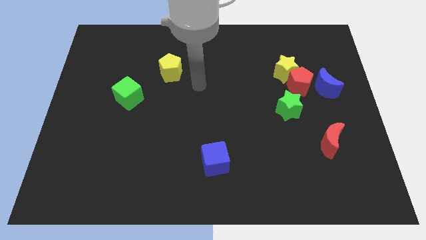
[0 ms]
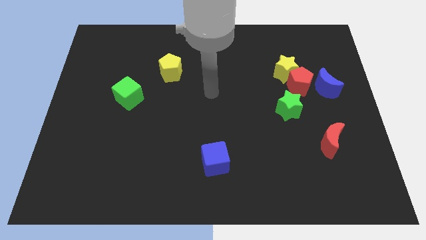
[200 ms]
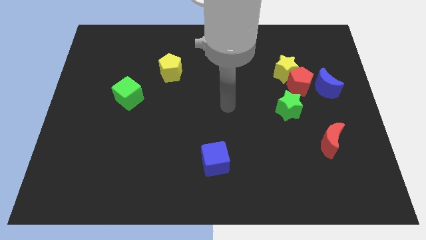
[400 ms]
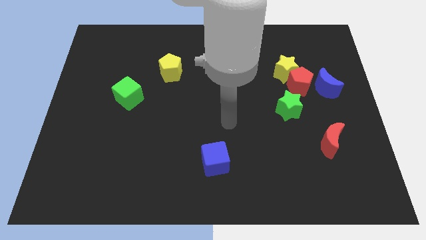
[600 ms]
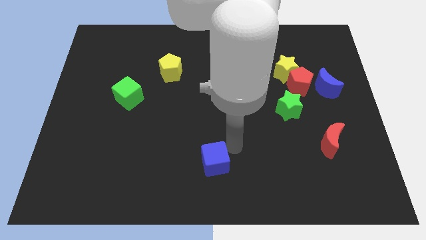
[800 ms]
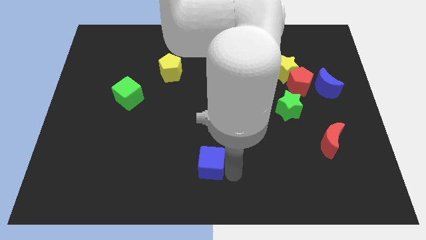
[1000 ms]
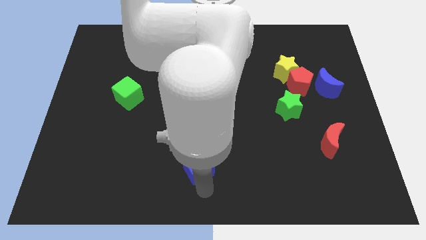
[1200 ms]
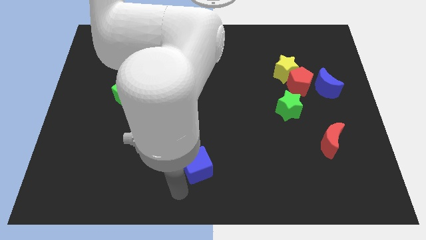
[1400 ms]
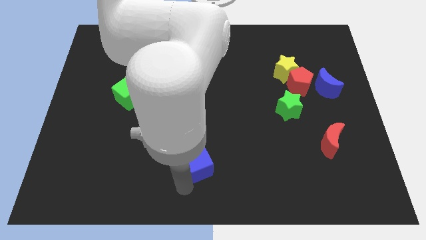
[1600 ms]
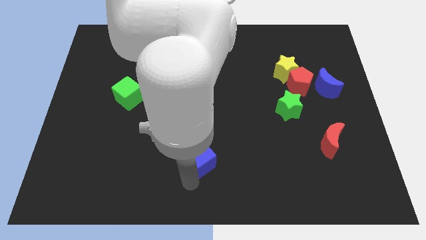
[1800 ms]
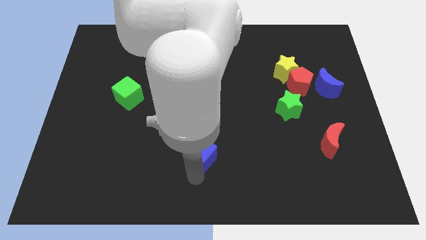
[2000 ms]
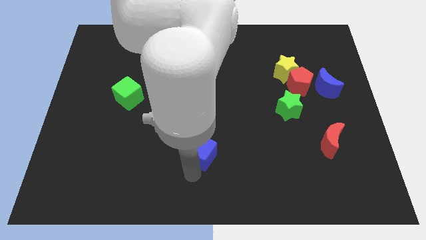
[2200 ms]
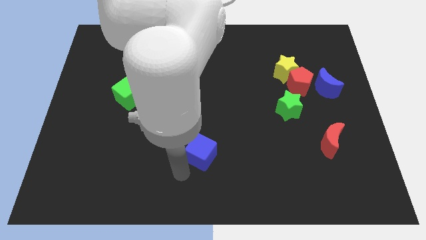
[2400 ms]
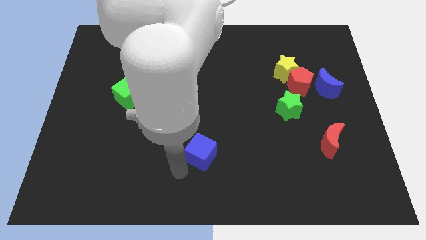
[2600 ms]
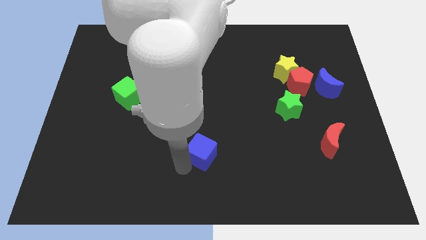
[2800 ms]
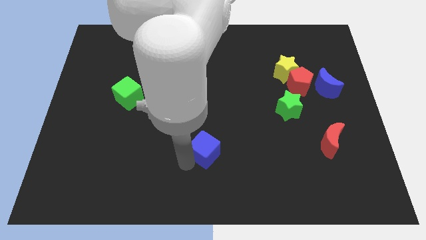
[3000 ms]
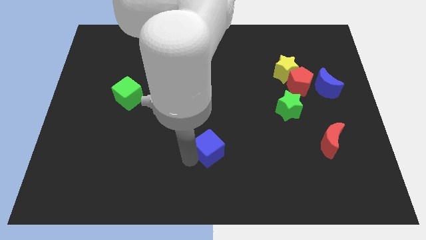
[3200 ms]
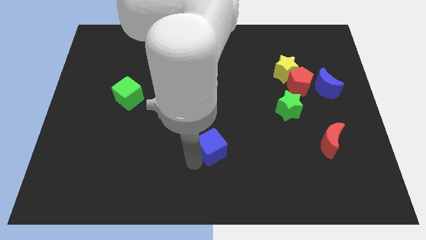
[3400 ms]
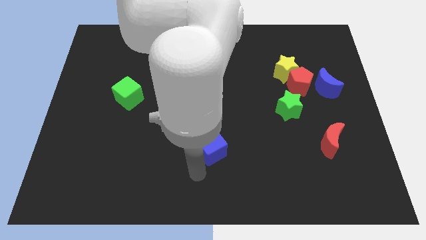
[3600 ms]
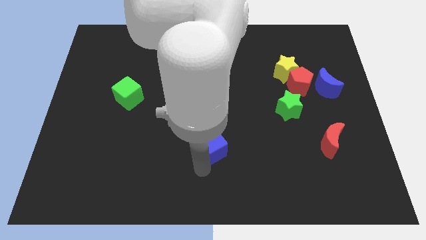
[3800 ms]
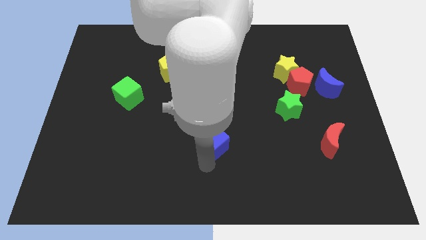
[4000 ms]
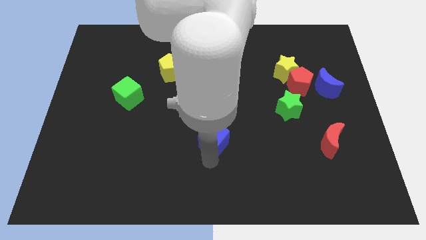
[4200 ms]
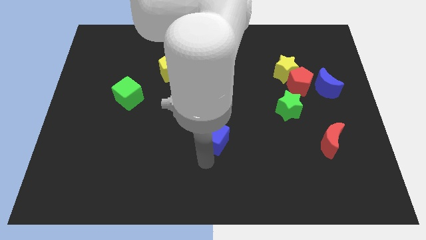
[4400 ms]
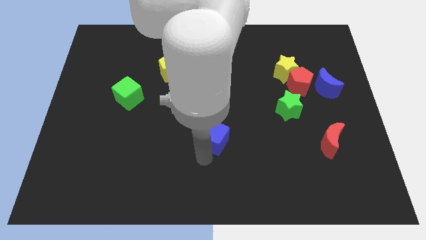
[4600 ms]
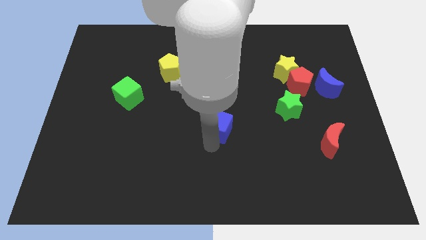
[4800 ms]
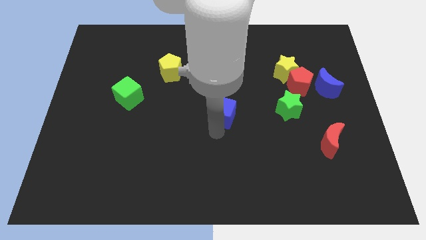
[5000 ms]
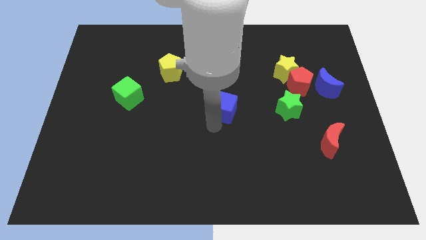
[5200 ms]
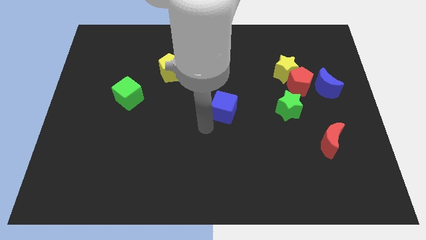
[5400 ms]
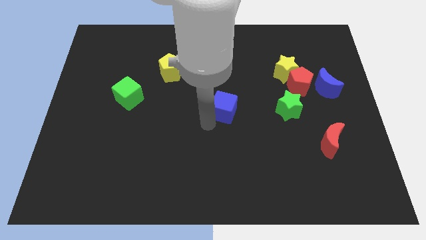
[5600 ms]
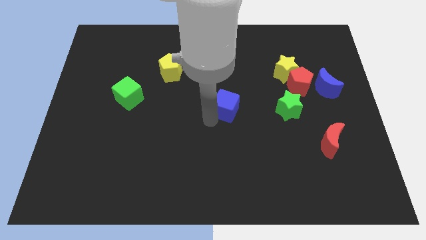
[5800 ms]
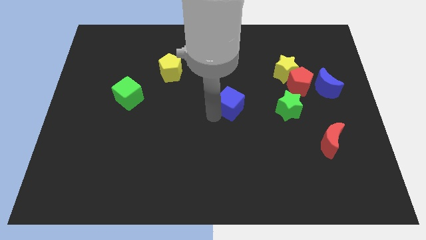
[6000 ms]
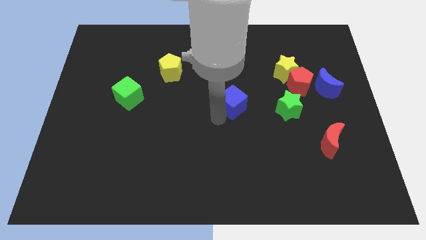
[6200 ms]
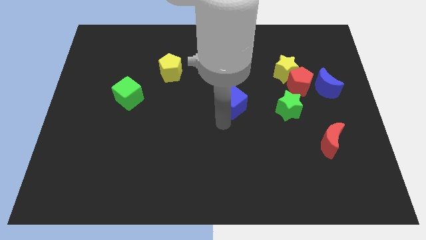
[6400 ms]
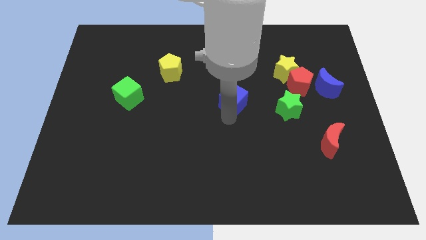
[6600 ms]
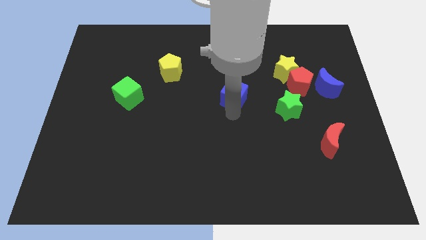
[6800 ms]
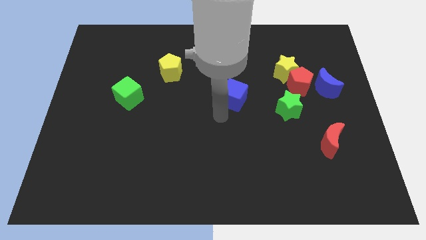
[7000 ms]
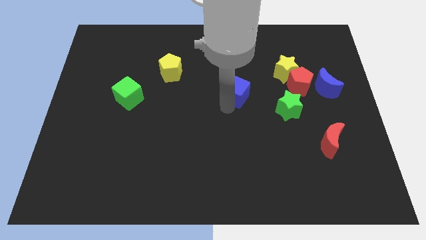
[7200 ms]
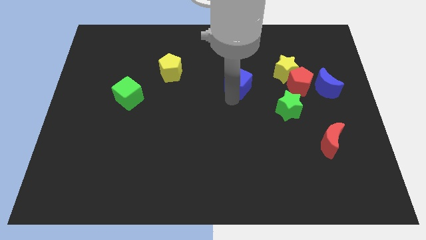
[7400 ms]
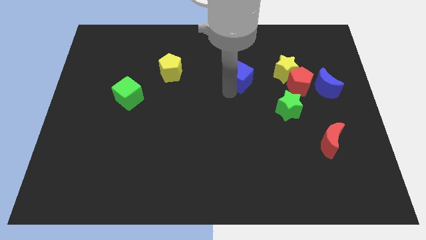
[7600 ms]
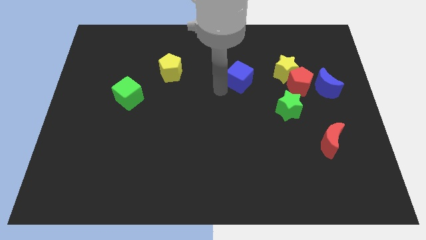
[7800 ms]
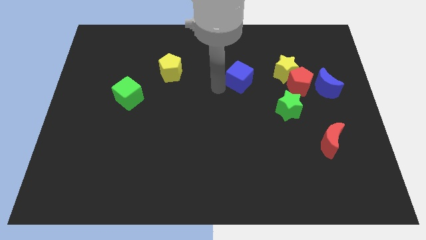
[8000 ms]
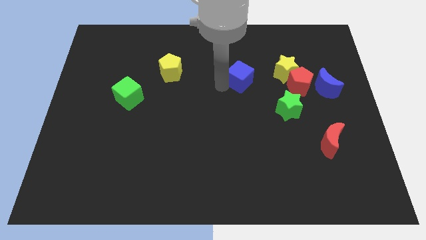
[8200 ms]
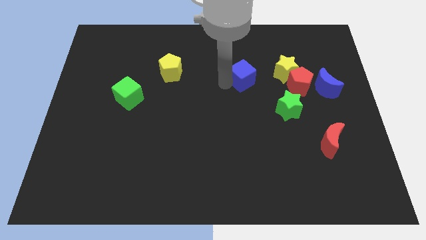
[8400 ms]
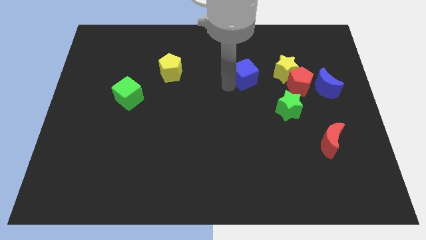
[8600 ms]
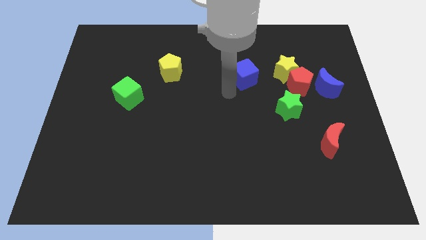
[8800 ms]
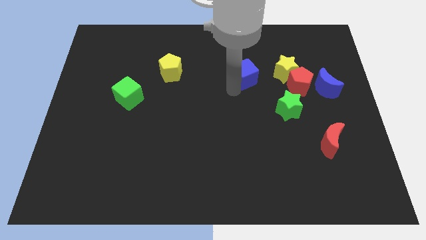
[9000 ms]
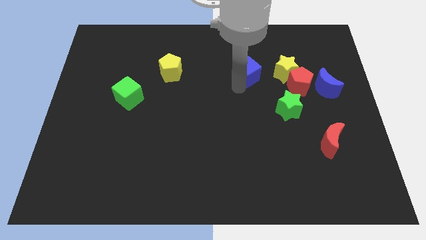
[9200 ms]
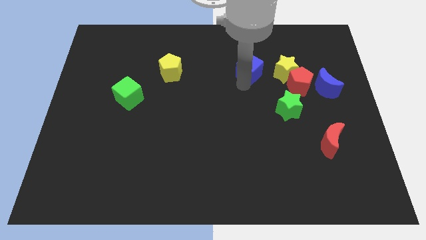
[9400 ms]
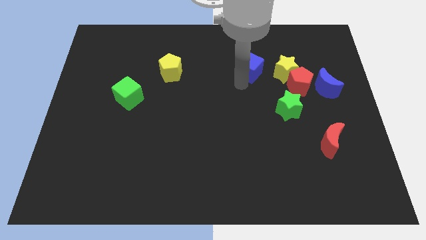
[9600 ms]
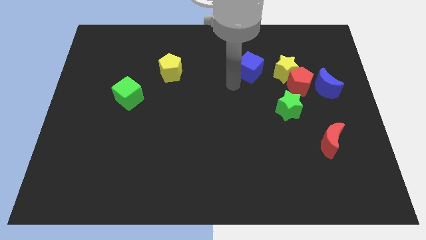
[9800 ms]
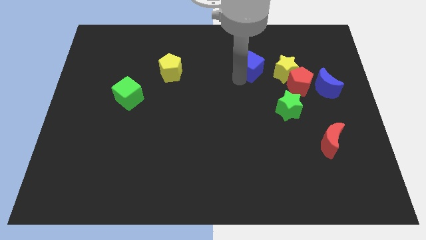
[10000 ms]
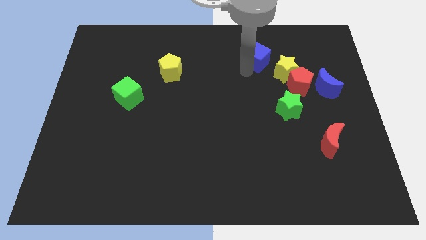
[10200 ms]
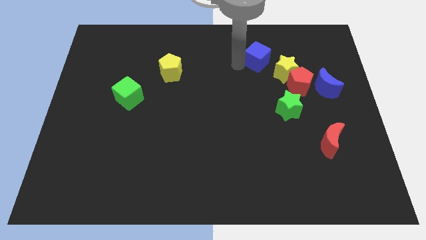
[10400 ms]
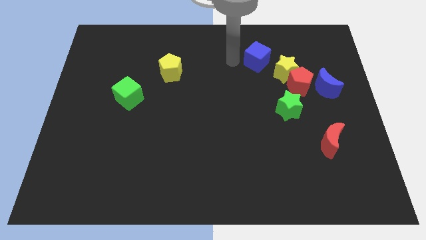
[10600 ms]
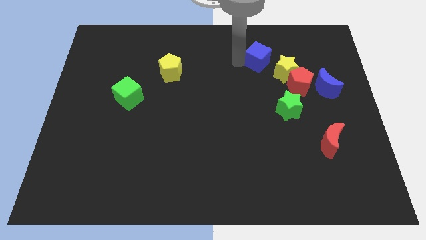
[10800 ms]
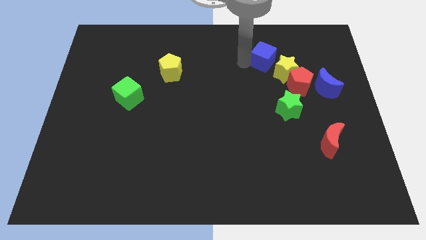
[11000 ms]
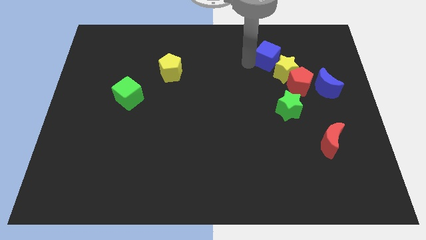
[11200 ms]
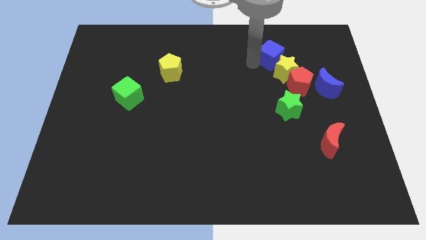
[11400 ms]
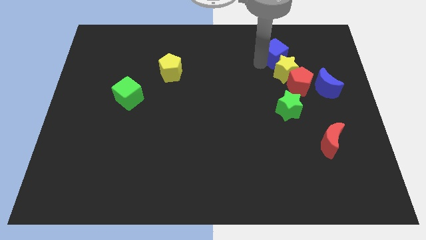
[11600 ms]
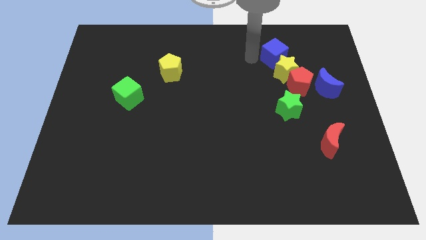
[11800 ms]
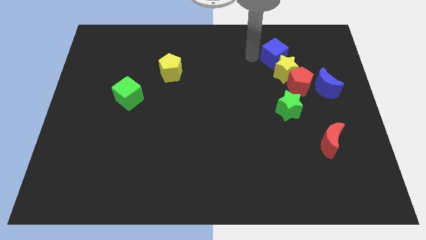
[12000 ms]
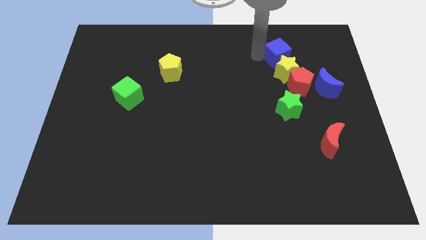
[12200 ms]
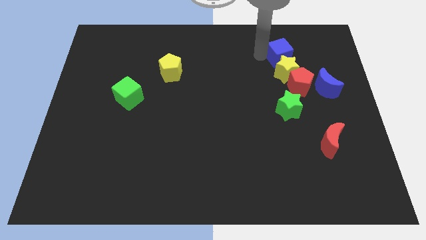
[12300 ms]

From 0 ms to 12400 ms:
move the blue cube diagonally up and to the right of the yellow star
